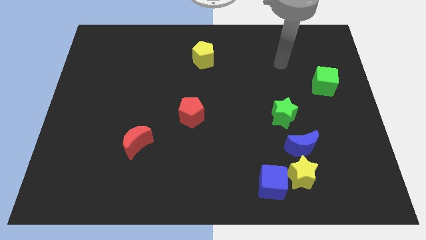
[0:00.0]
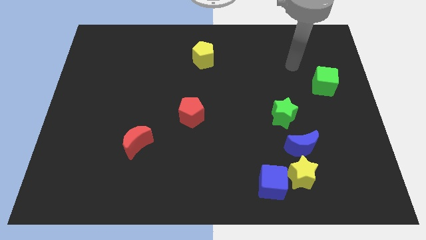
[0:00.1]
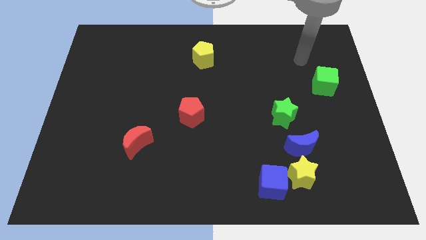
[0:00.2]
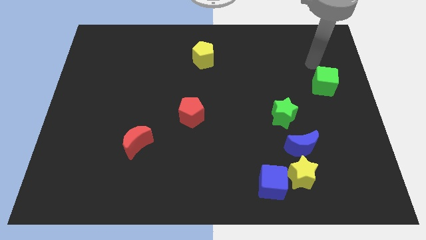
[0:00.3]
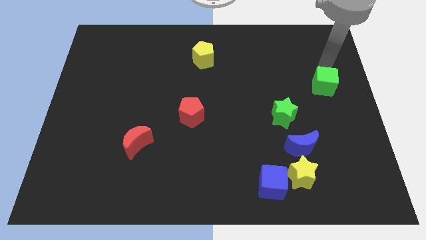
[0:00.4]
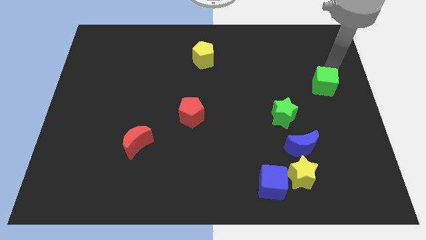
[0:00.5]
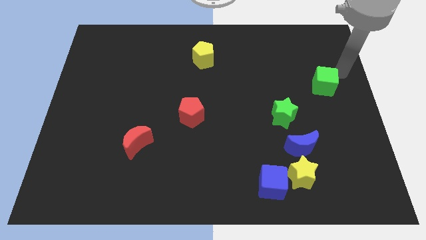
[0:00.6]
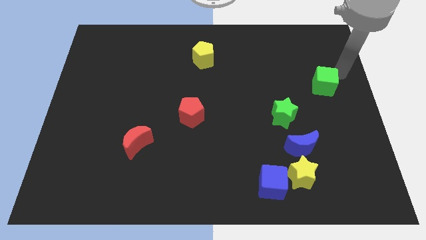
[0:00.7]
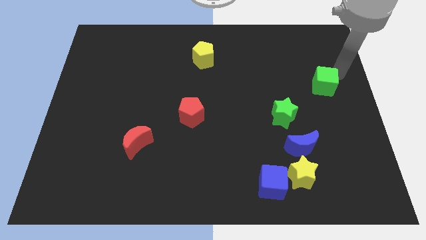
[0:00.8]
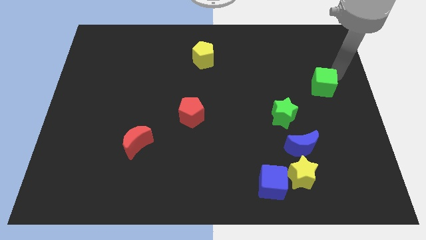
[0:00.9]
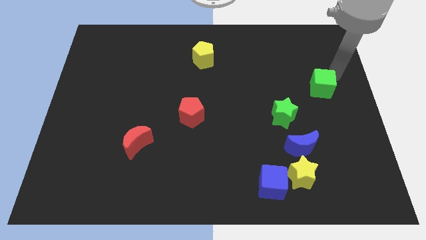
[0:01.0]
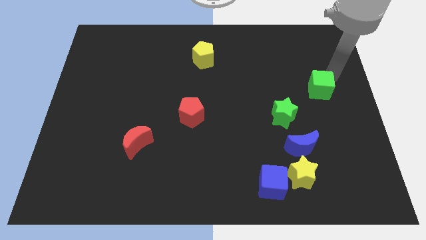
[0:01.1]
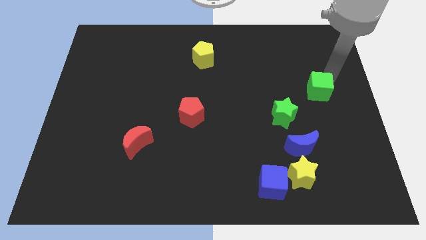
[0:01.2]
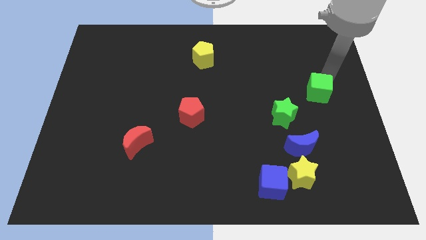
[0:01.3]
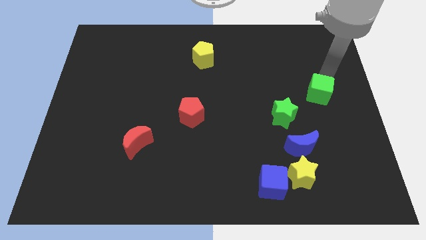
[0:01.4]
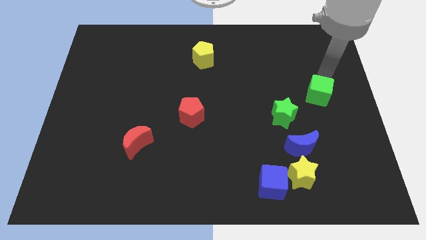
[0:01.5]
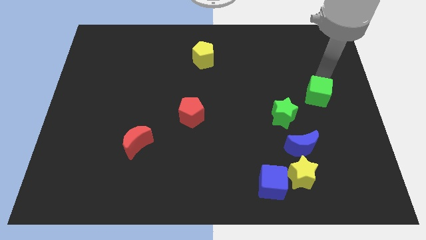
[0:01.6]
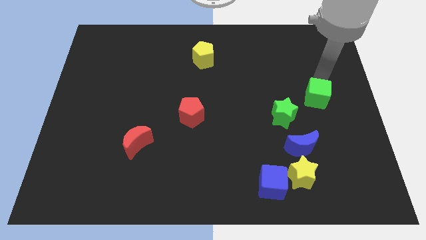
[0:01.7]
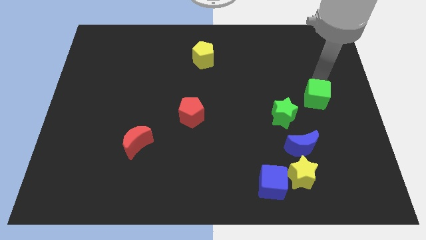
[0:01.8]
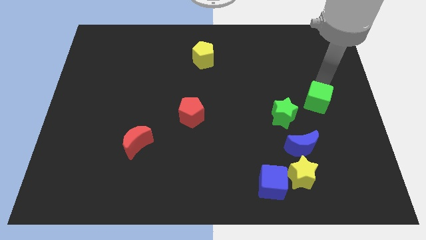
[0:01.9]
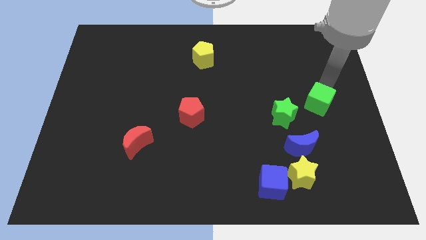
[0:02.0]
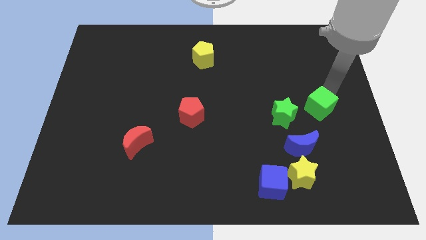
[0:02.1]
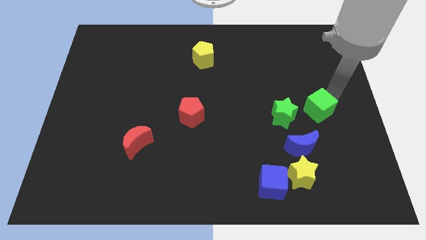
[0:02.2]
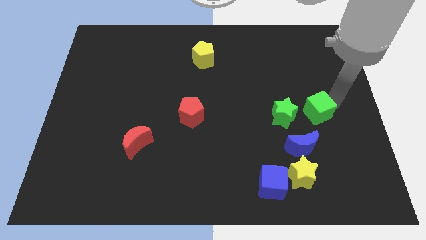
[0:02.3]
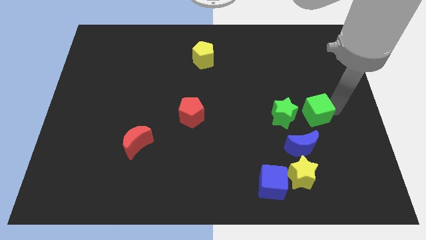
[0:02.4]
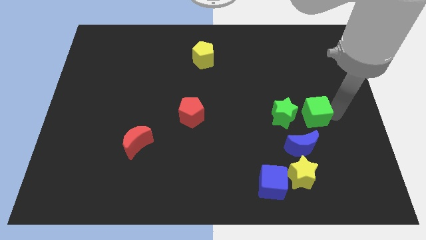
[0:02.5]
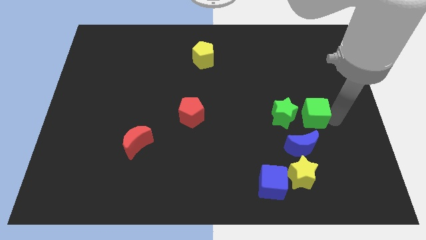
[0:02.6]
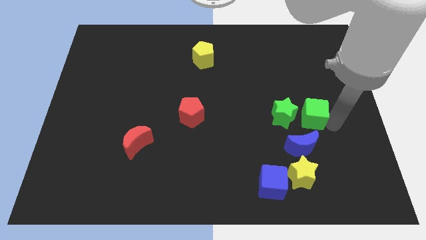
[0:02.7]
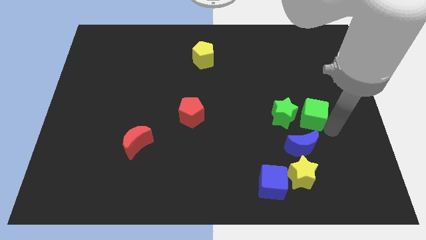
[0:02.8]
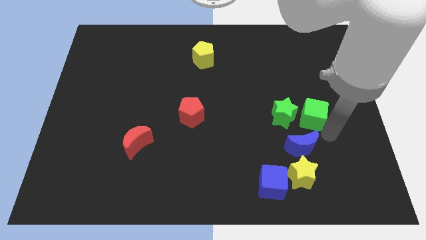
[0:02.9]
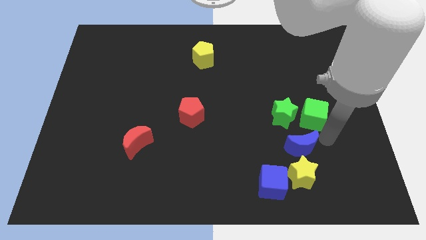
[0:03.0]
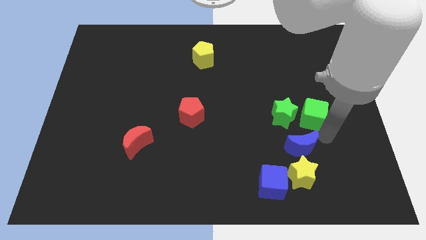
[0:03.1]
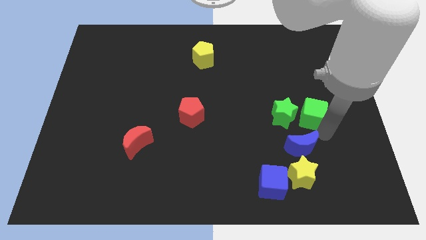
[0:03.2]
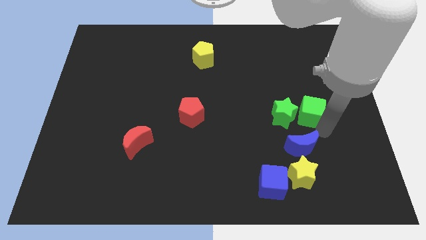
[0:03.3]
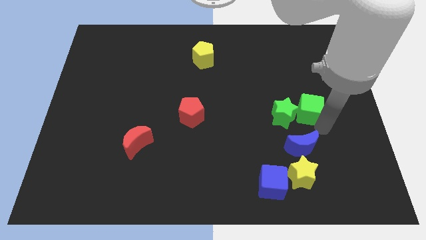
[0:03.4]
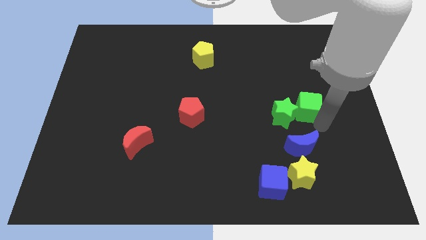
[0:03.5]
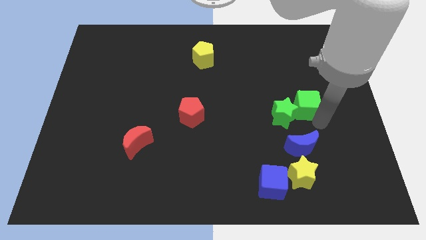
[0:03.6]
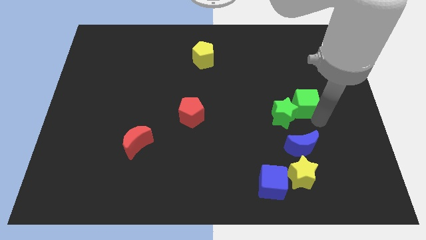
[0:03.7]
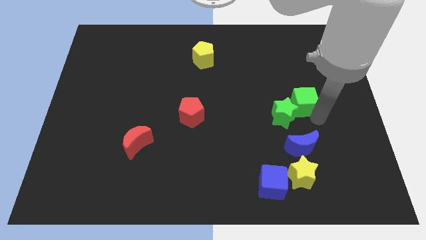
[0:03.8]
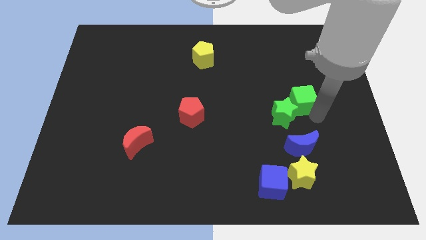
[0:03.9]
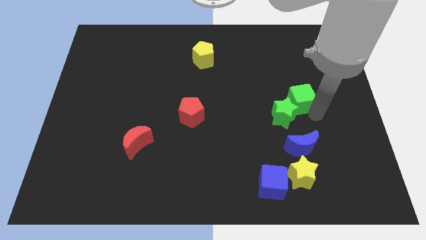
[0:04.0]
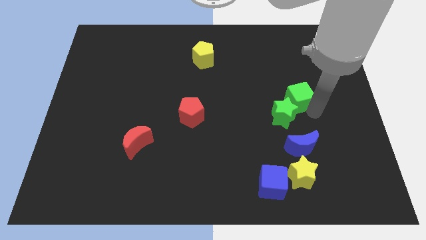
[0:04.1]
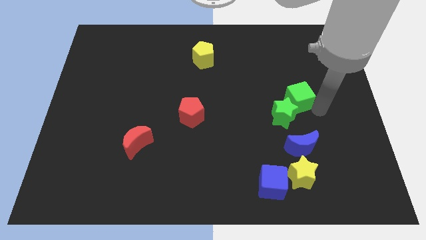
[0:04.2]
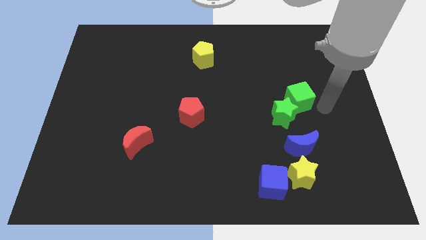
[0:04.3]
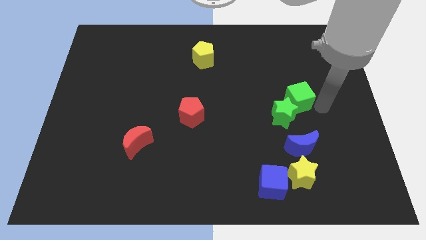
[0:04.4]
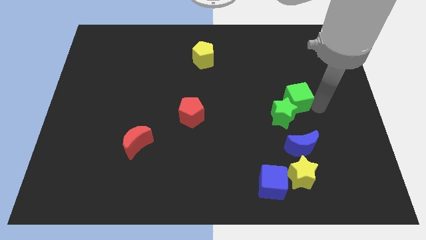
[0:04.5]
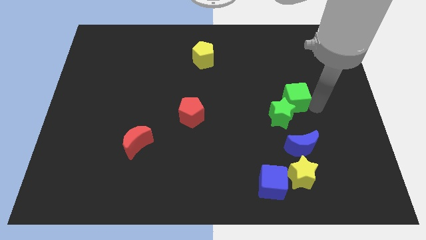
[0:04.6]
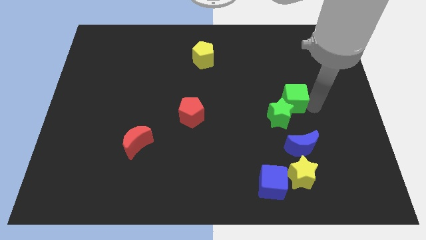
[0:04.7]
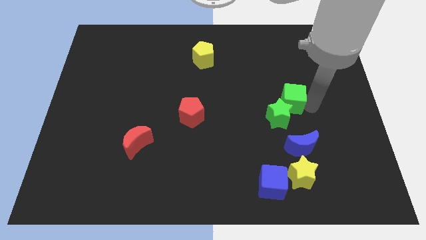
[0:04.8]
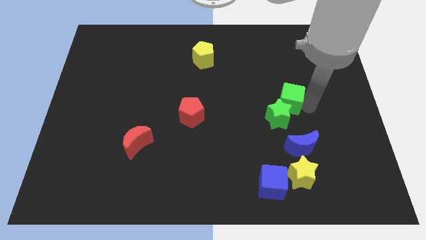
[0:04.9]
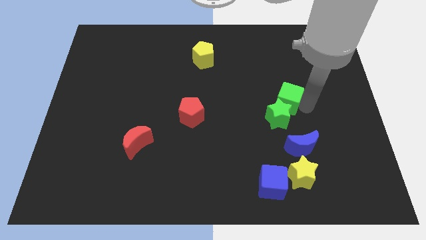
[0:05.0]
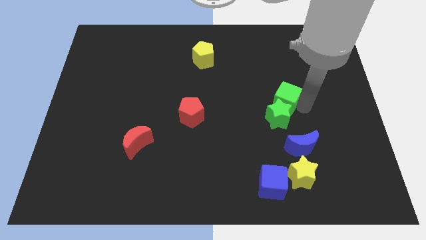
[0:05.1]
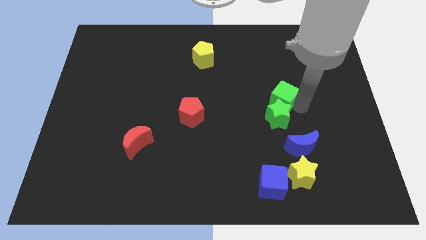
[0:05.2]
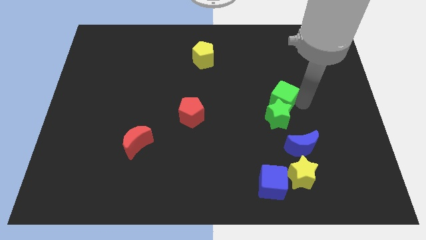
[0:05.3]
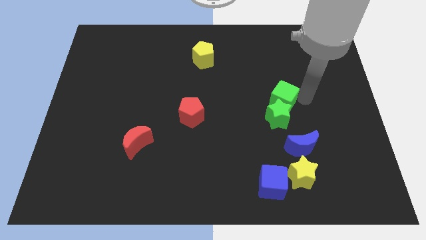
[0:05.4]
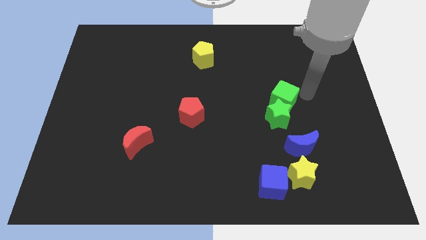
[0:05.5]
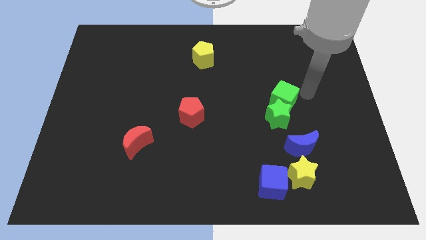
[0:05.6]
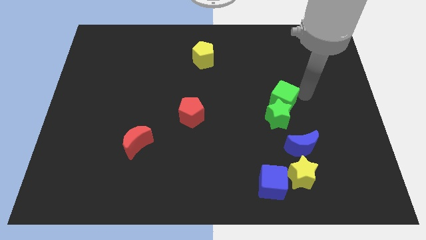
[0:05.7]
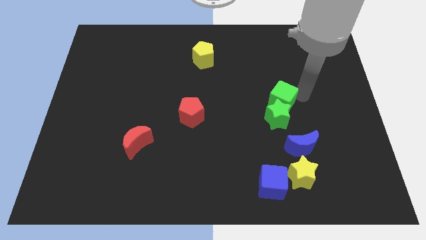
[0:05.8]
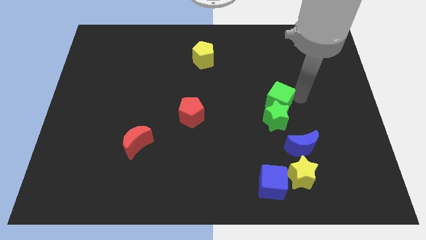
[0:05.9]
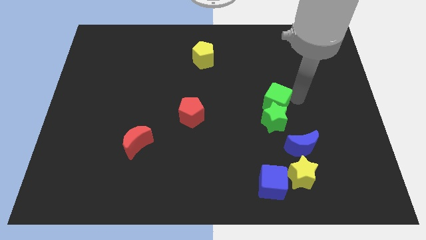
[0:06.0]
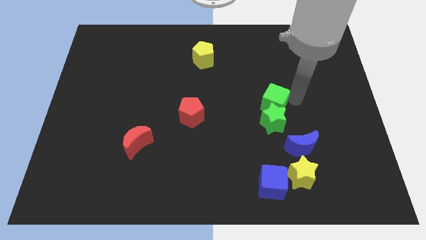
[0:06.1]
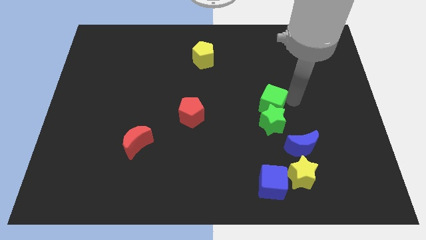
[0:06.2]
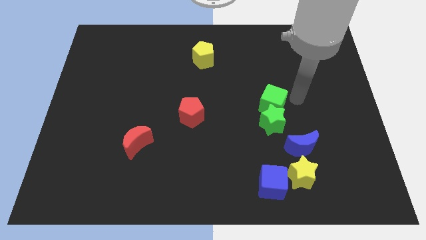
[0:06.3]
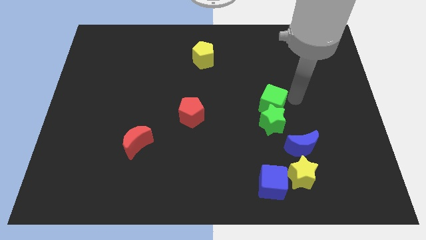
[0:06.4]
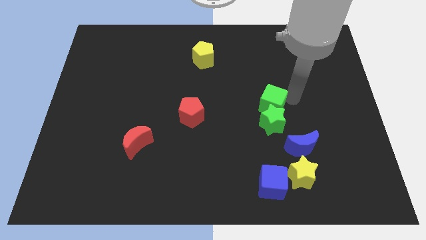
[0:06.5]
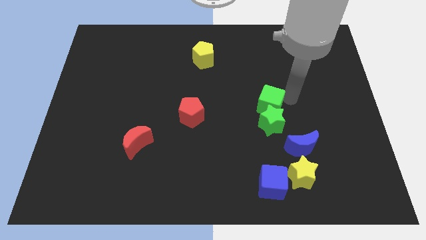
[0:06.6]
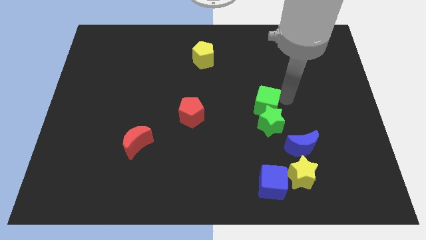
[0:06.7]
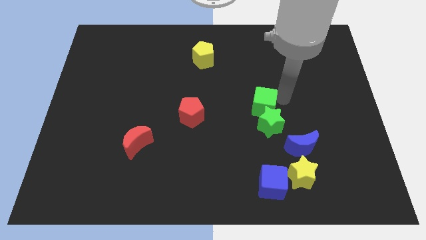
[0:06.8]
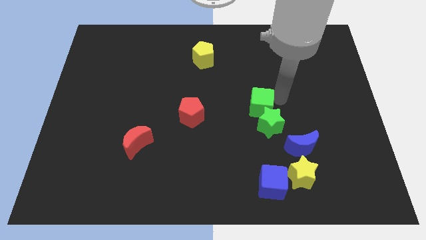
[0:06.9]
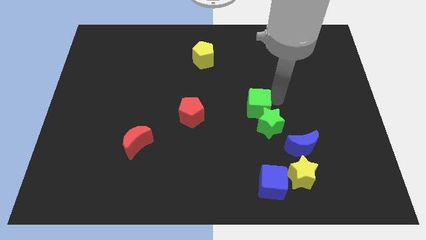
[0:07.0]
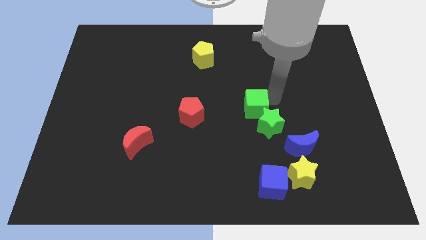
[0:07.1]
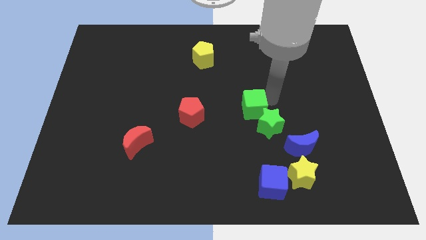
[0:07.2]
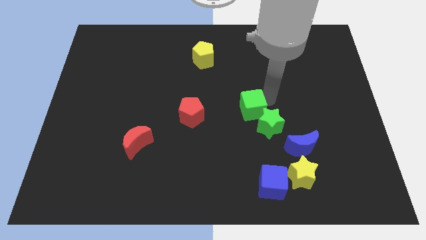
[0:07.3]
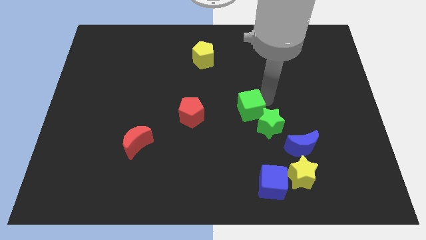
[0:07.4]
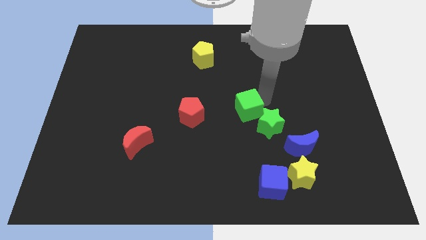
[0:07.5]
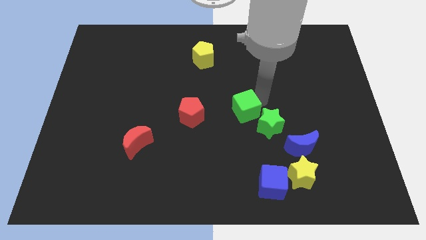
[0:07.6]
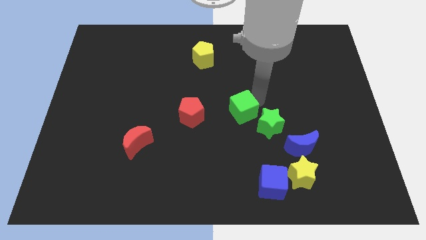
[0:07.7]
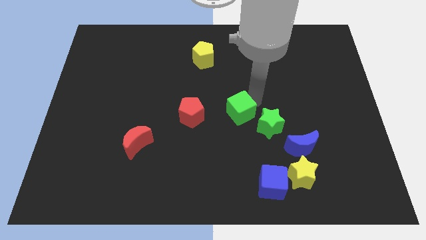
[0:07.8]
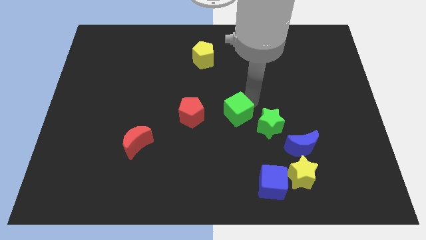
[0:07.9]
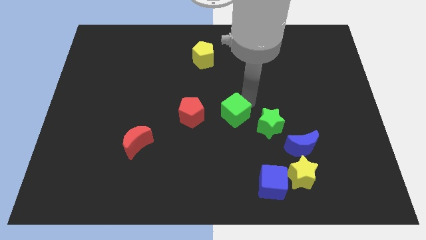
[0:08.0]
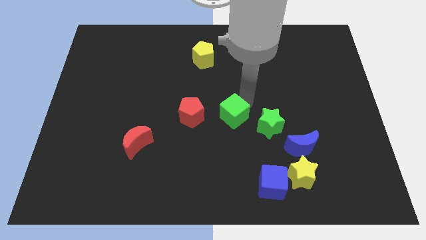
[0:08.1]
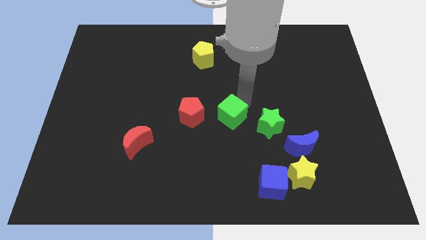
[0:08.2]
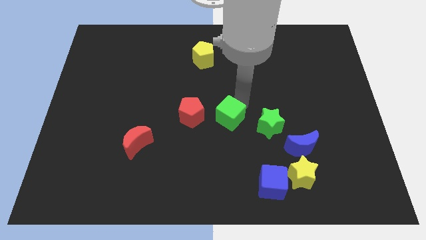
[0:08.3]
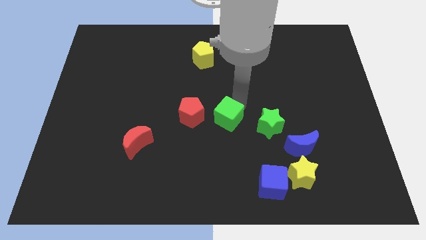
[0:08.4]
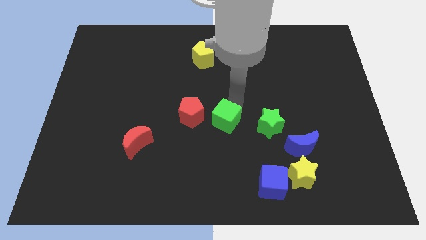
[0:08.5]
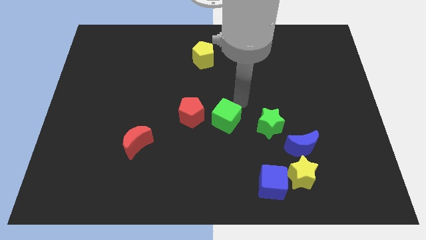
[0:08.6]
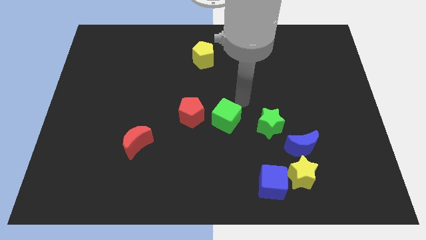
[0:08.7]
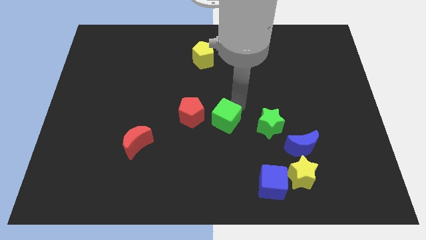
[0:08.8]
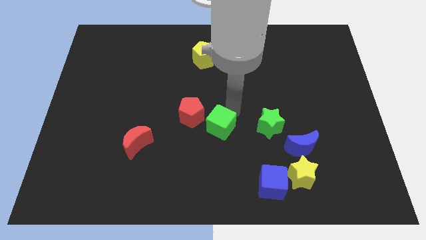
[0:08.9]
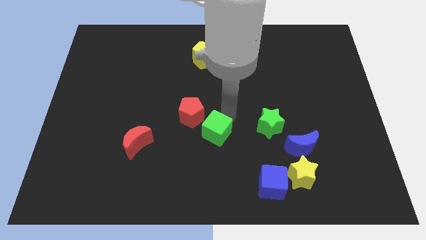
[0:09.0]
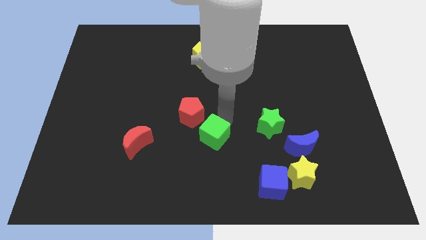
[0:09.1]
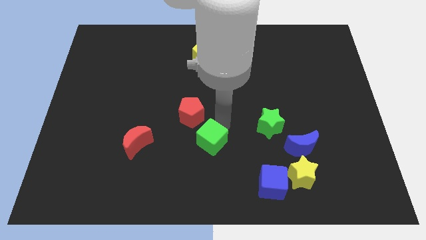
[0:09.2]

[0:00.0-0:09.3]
push the green cube to the bottom of the red pentagon
